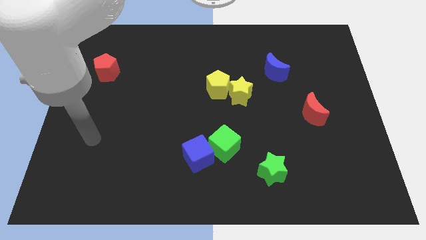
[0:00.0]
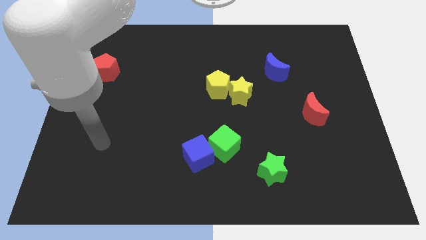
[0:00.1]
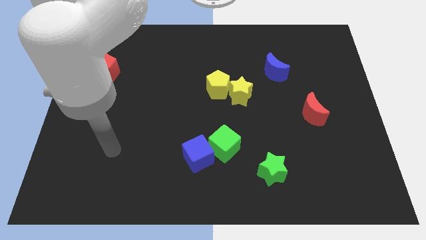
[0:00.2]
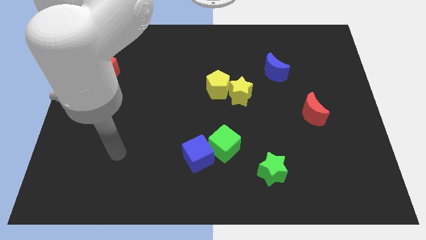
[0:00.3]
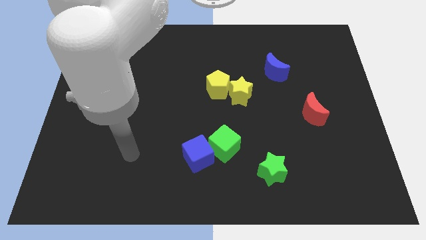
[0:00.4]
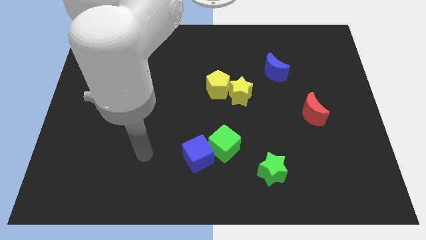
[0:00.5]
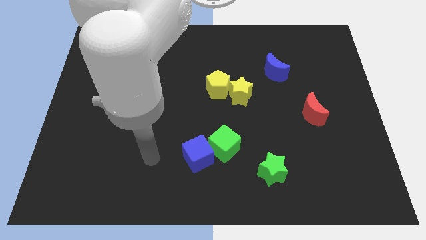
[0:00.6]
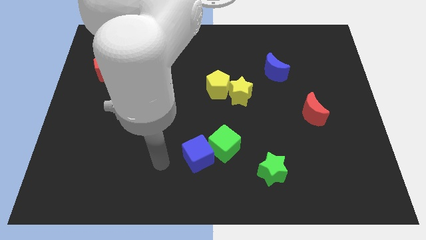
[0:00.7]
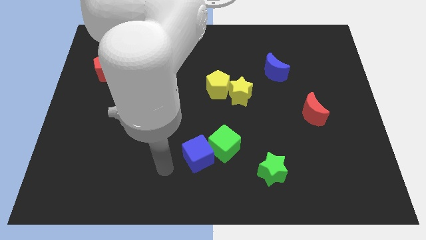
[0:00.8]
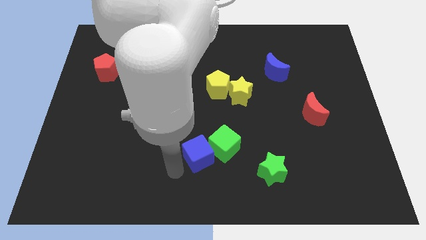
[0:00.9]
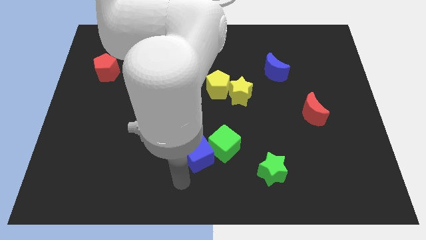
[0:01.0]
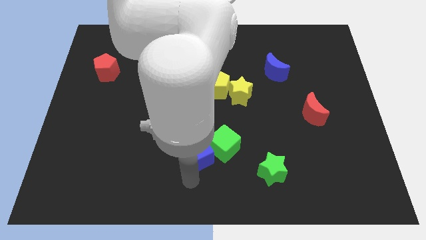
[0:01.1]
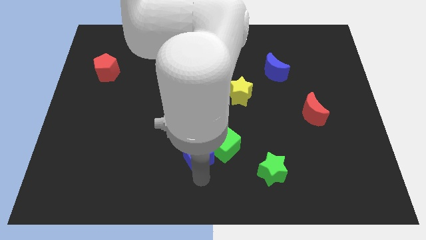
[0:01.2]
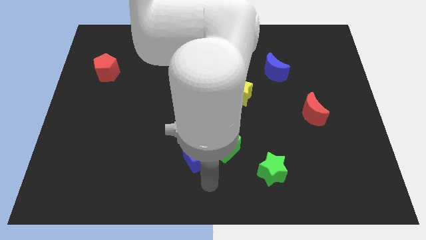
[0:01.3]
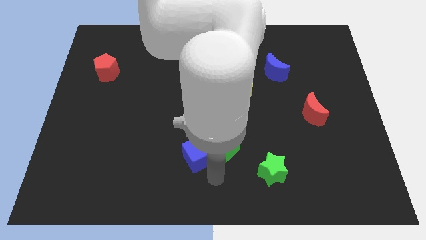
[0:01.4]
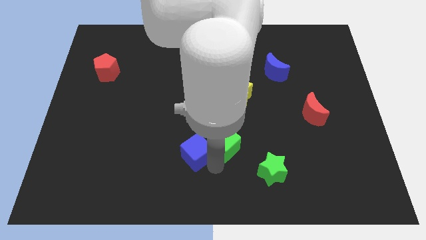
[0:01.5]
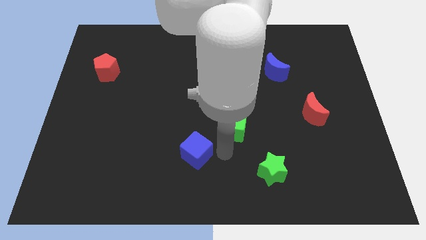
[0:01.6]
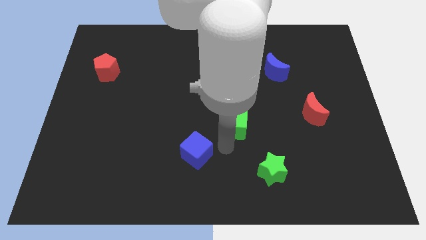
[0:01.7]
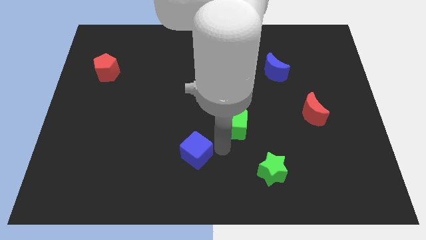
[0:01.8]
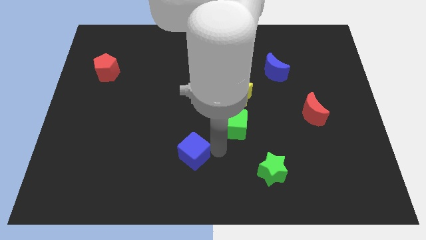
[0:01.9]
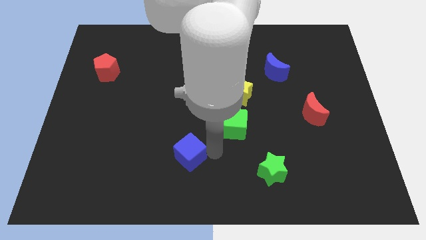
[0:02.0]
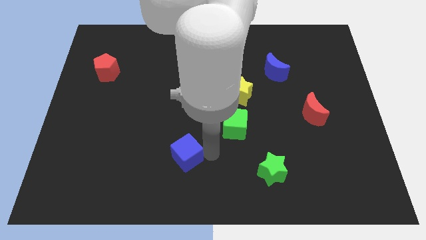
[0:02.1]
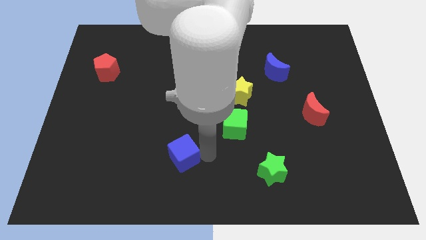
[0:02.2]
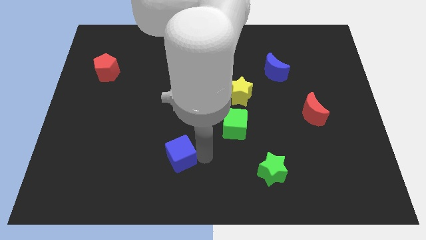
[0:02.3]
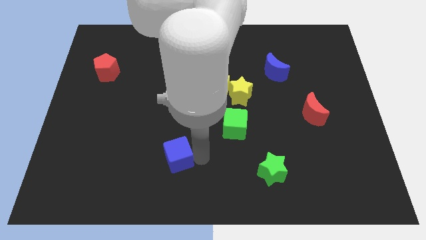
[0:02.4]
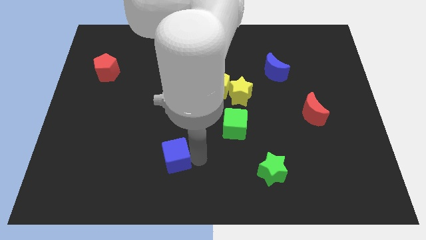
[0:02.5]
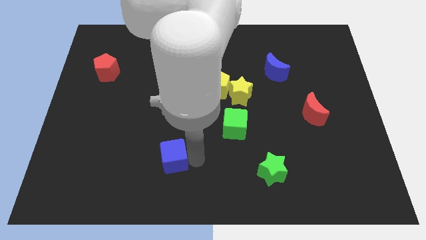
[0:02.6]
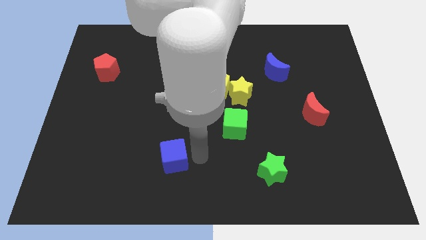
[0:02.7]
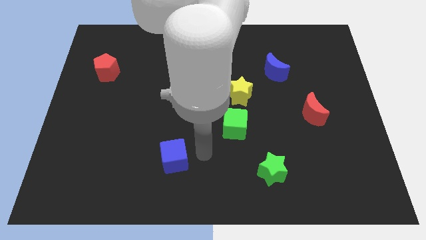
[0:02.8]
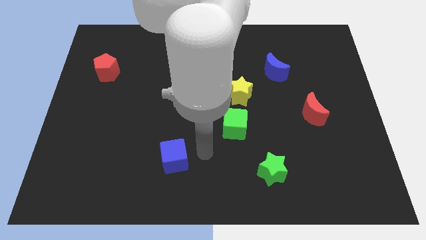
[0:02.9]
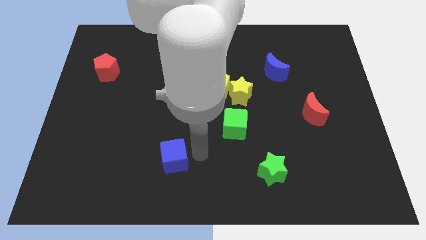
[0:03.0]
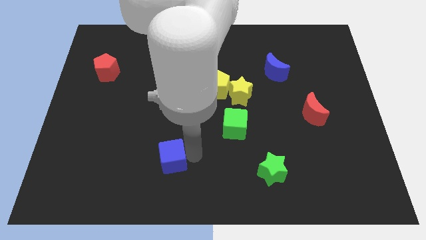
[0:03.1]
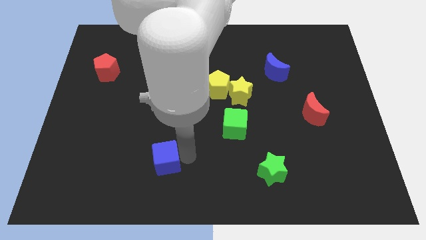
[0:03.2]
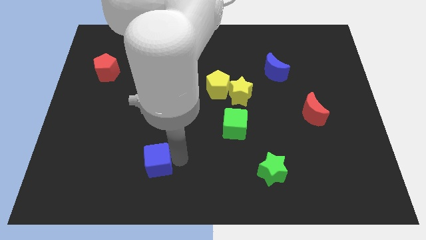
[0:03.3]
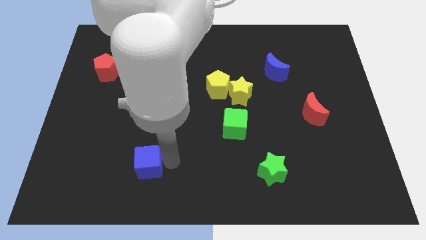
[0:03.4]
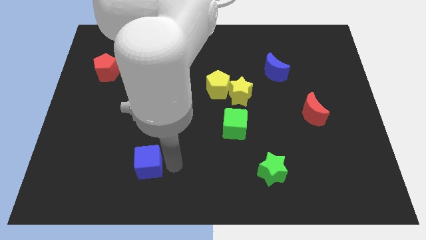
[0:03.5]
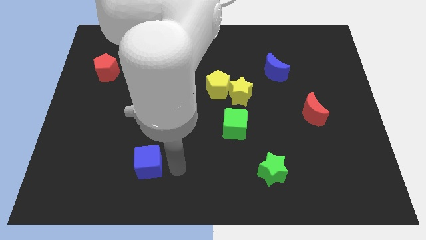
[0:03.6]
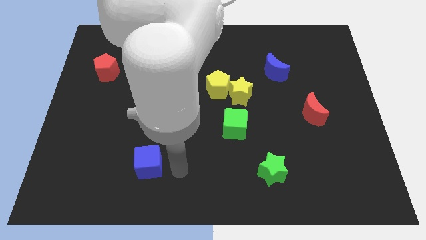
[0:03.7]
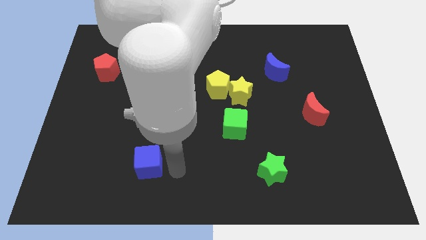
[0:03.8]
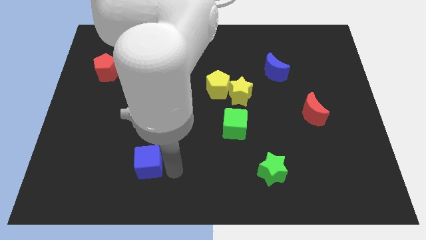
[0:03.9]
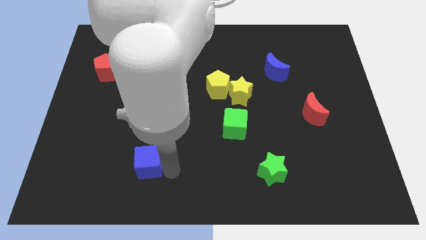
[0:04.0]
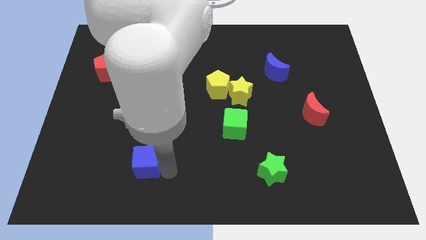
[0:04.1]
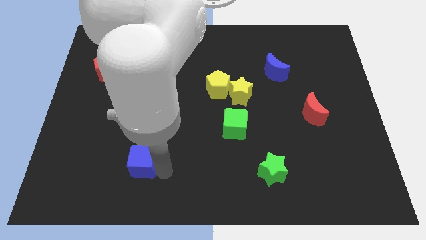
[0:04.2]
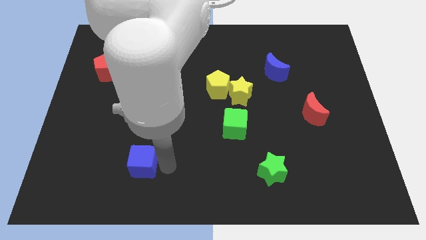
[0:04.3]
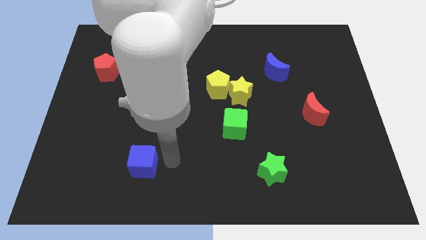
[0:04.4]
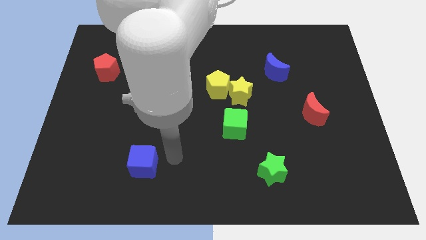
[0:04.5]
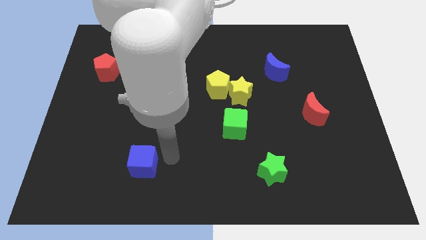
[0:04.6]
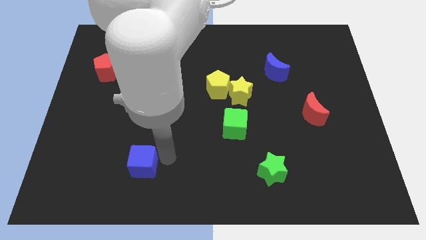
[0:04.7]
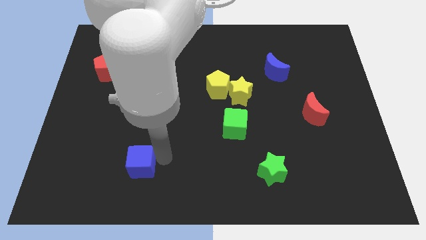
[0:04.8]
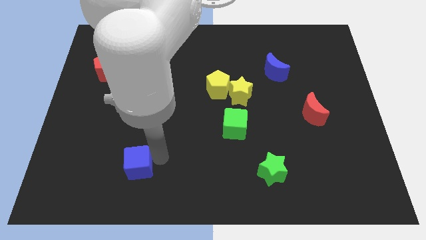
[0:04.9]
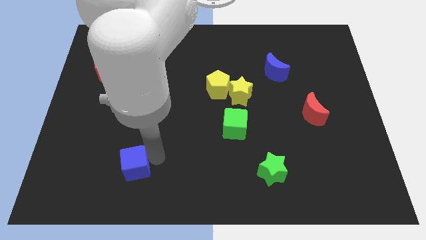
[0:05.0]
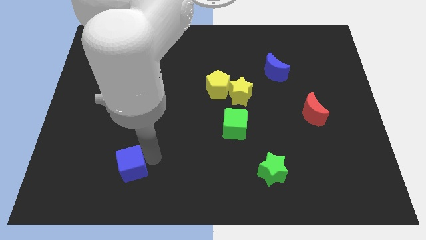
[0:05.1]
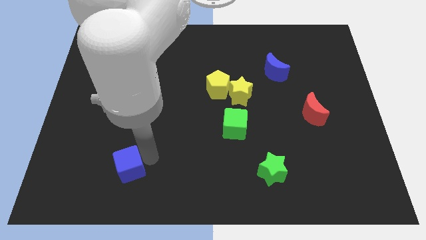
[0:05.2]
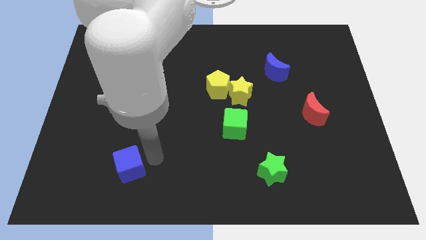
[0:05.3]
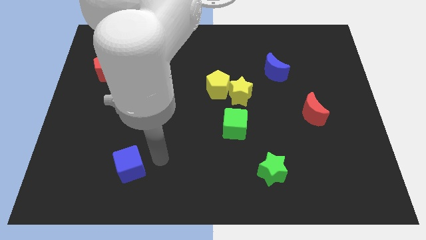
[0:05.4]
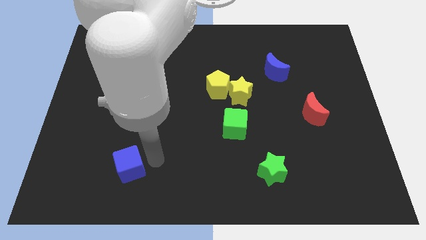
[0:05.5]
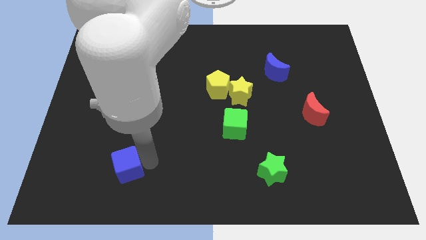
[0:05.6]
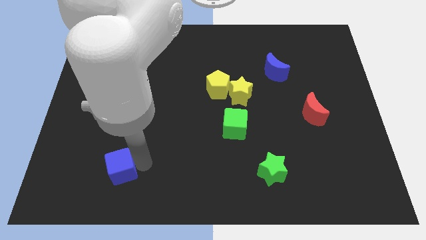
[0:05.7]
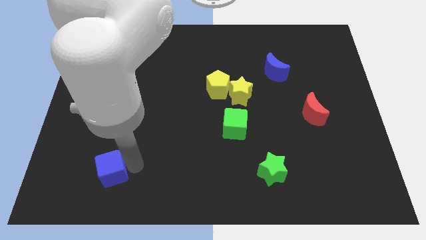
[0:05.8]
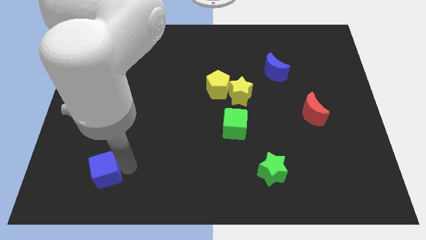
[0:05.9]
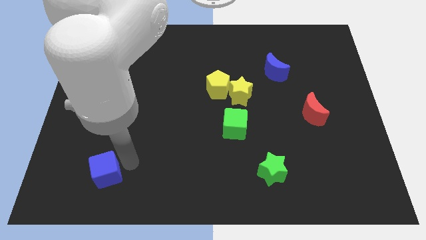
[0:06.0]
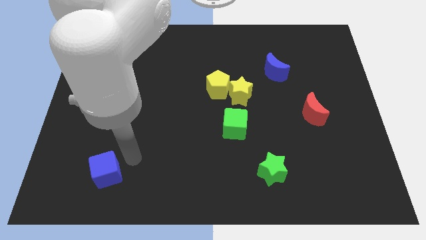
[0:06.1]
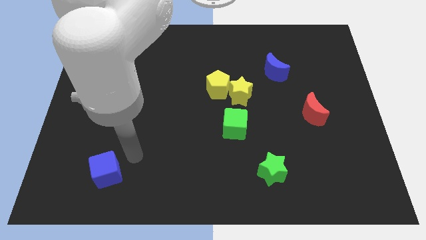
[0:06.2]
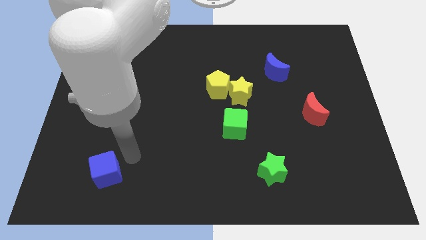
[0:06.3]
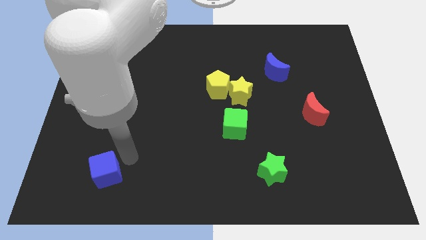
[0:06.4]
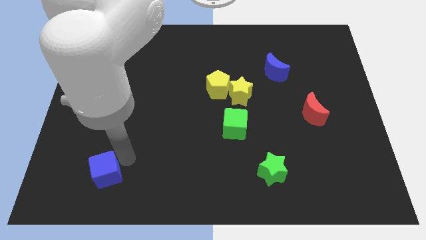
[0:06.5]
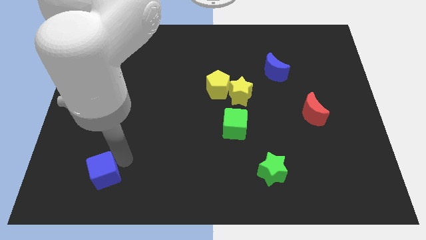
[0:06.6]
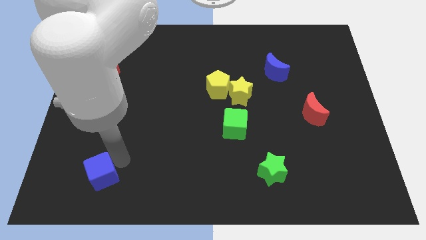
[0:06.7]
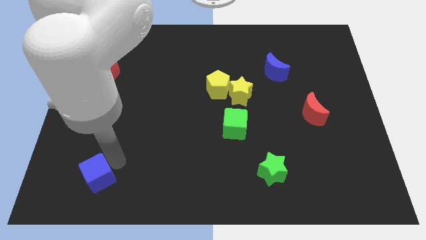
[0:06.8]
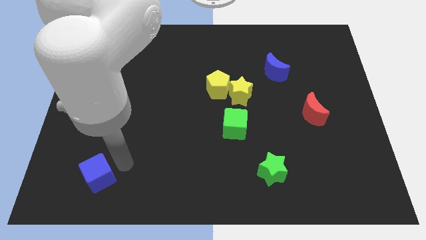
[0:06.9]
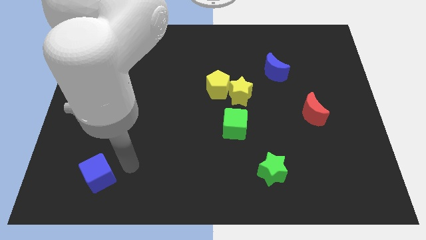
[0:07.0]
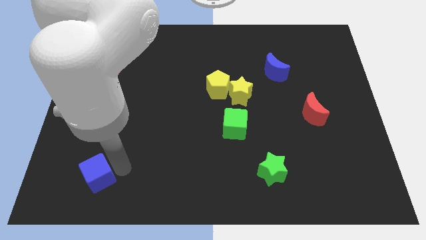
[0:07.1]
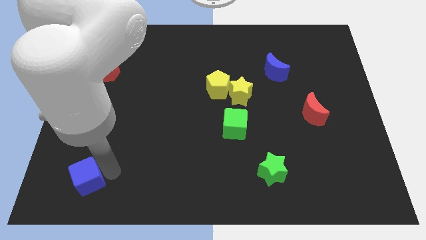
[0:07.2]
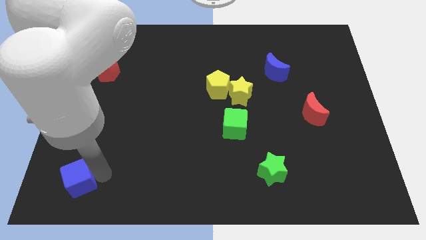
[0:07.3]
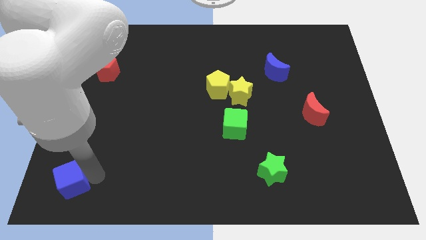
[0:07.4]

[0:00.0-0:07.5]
put the blue cube to the bottom left corner
